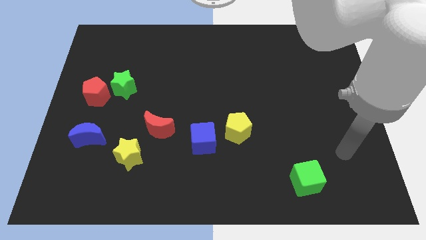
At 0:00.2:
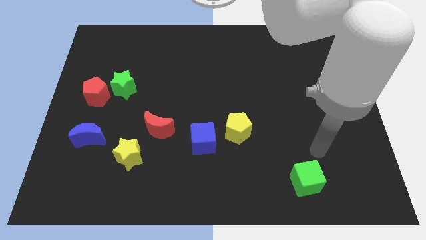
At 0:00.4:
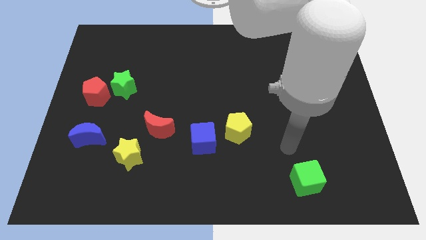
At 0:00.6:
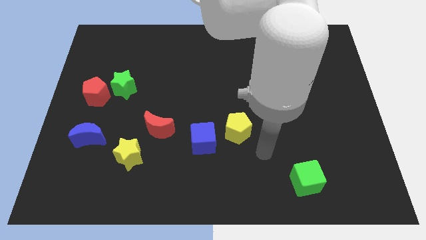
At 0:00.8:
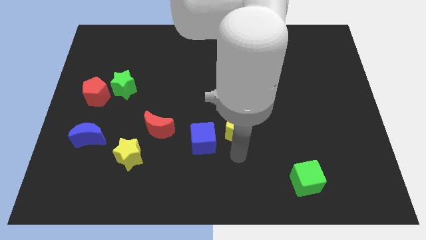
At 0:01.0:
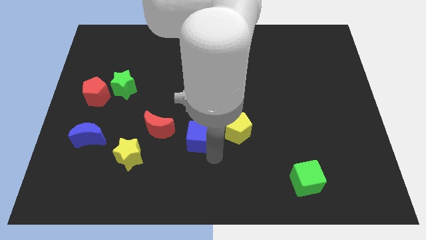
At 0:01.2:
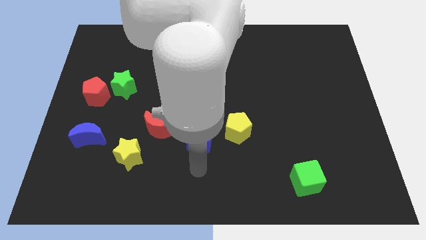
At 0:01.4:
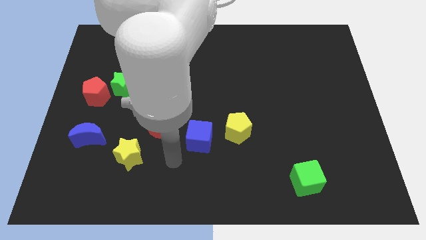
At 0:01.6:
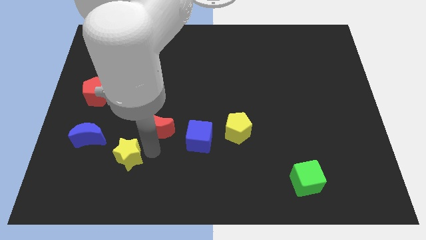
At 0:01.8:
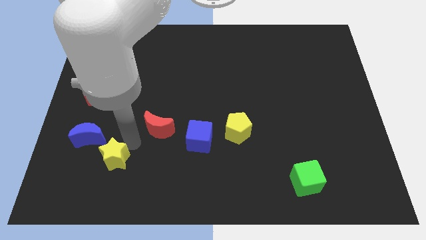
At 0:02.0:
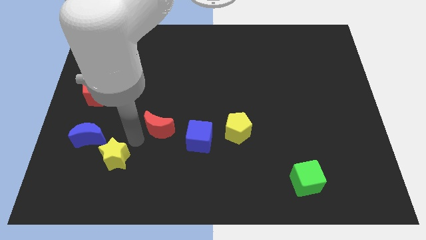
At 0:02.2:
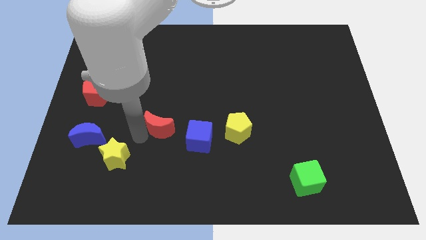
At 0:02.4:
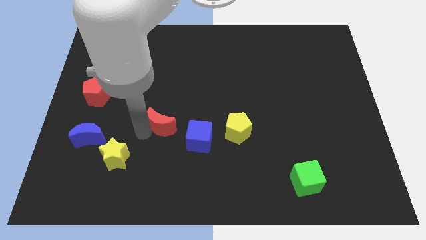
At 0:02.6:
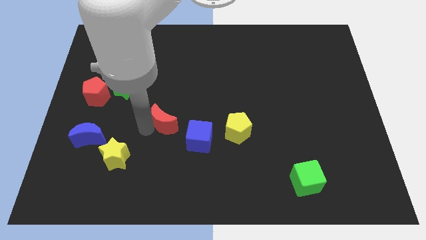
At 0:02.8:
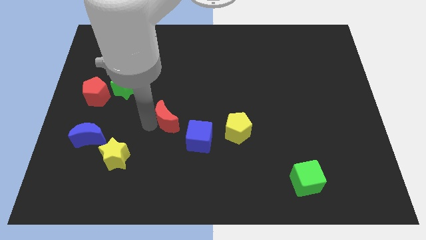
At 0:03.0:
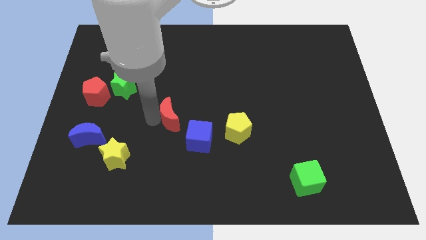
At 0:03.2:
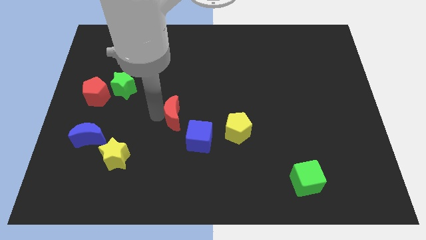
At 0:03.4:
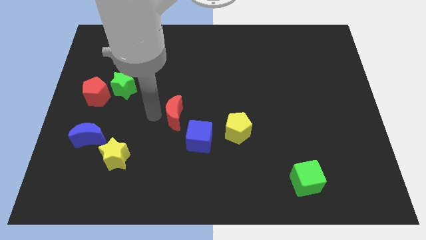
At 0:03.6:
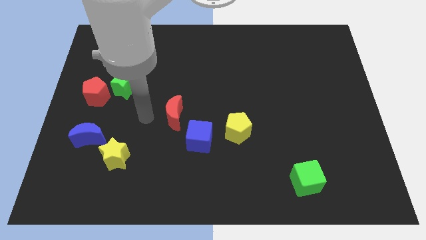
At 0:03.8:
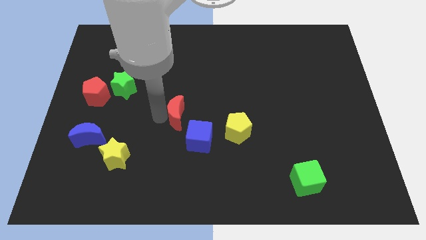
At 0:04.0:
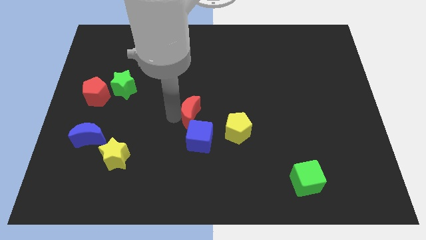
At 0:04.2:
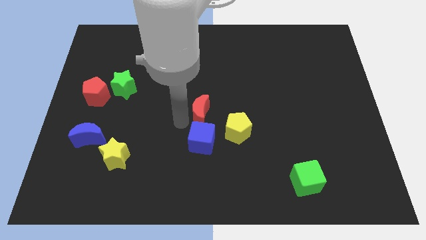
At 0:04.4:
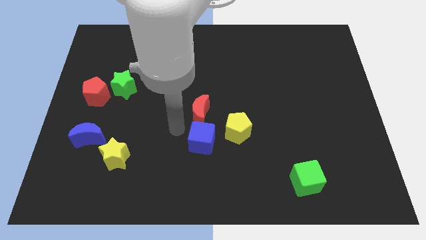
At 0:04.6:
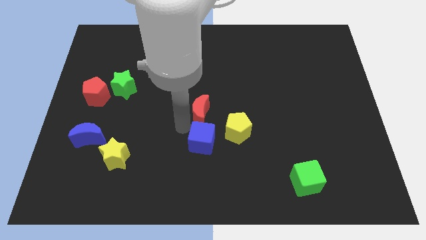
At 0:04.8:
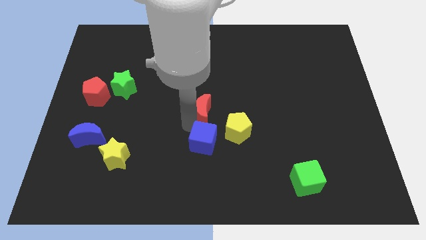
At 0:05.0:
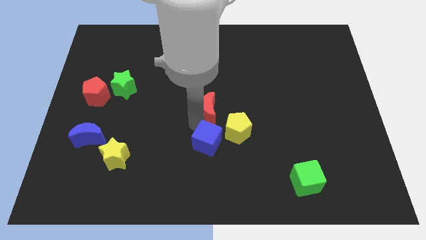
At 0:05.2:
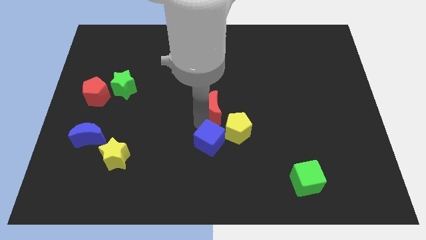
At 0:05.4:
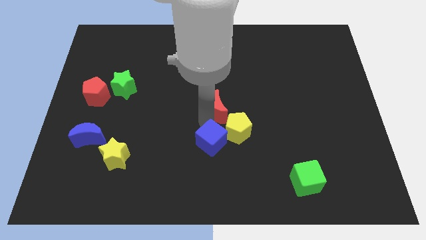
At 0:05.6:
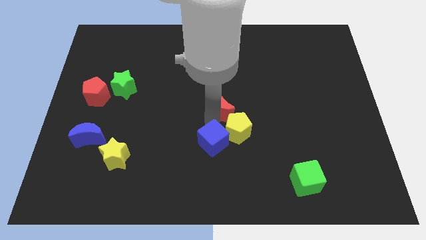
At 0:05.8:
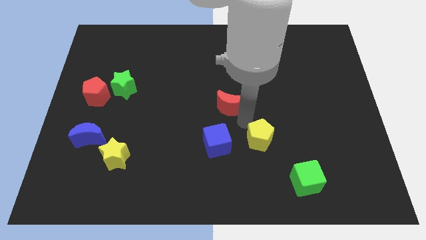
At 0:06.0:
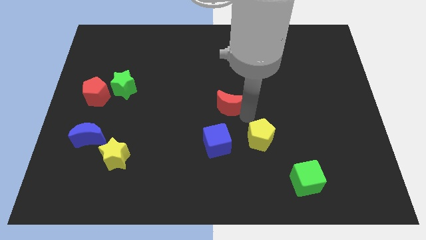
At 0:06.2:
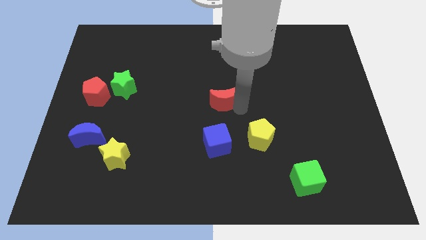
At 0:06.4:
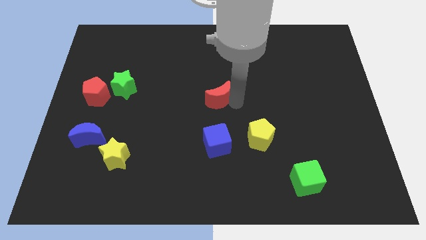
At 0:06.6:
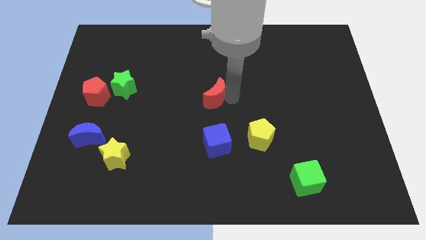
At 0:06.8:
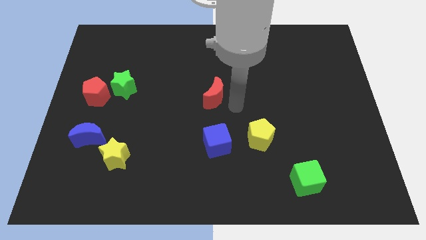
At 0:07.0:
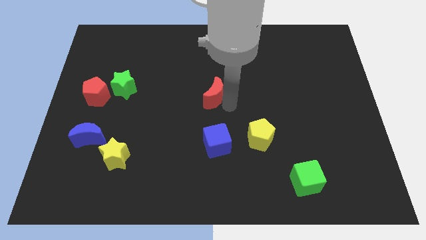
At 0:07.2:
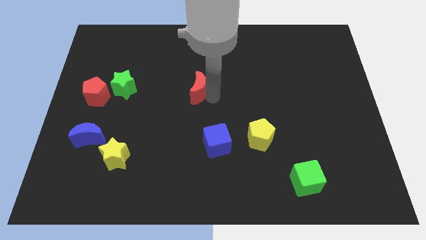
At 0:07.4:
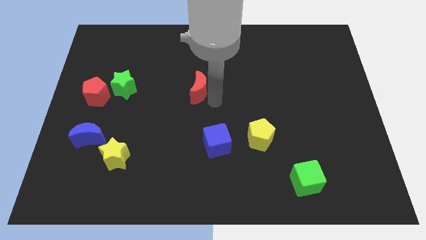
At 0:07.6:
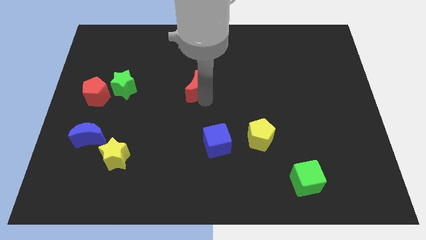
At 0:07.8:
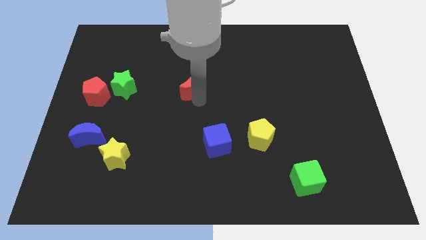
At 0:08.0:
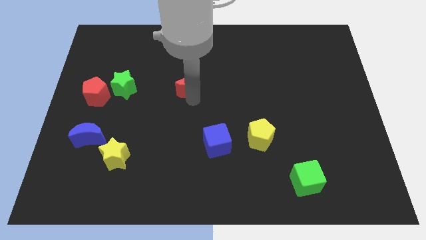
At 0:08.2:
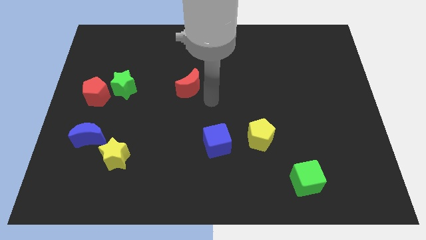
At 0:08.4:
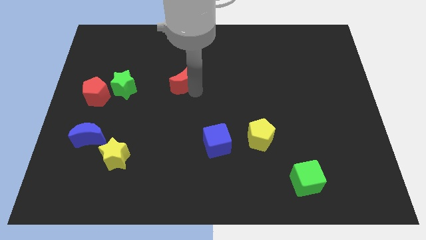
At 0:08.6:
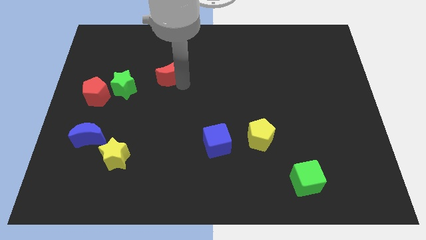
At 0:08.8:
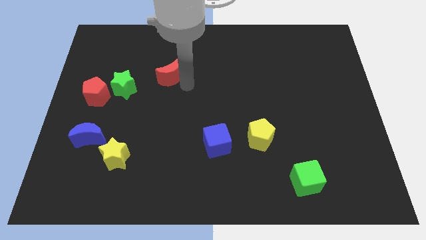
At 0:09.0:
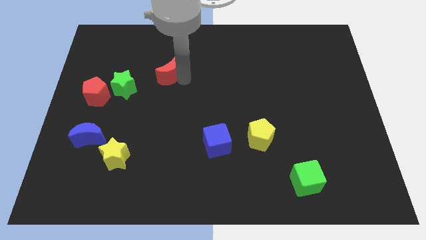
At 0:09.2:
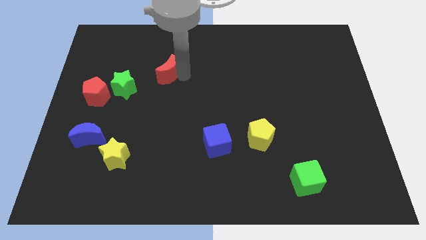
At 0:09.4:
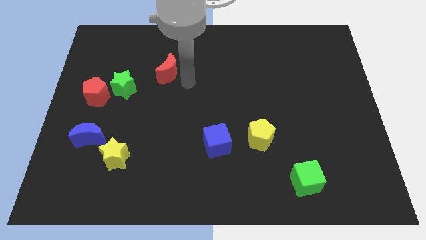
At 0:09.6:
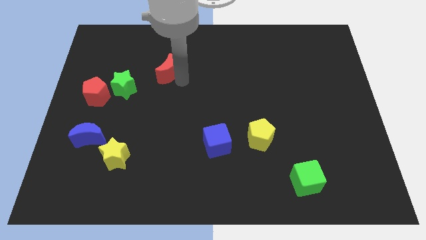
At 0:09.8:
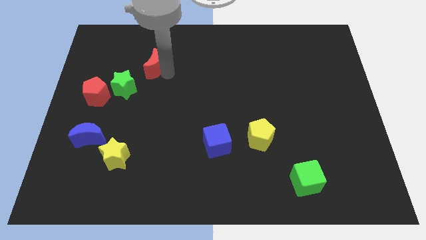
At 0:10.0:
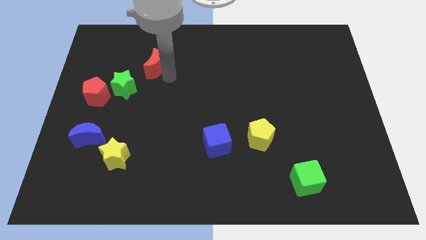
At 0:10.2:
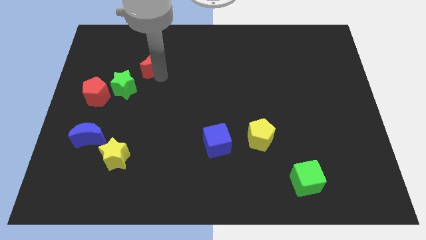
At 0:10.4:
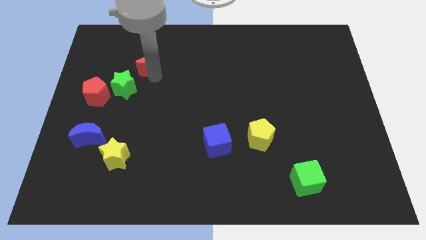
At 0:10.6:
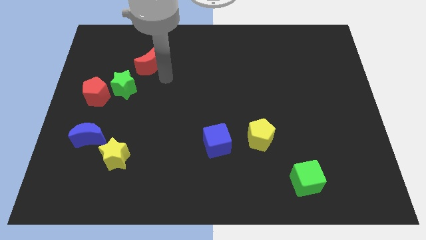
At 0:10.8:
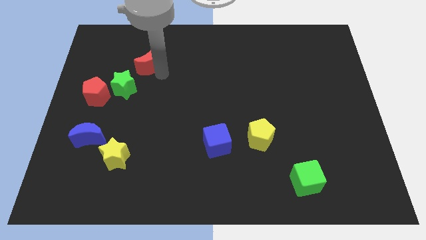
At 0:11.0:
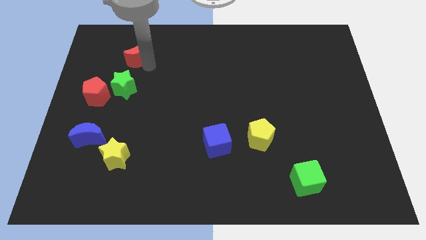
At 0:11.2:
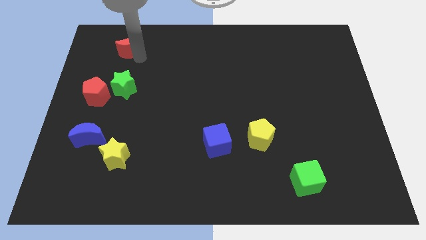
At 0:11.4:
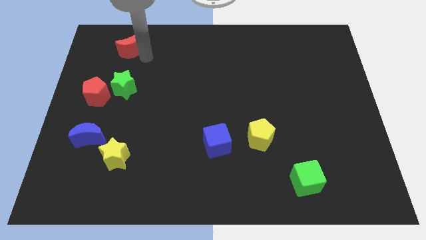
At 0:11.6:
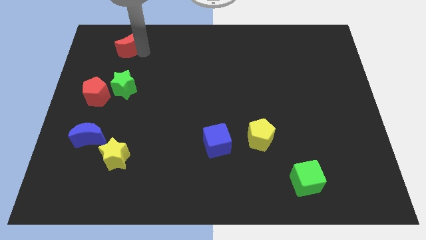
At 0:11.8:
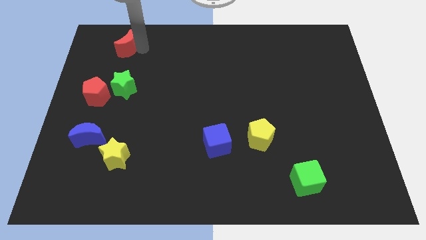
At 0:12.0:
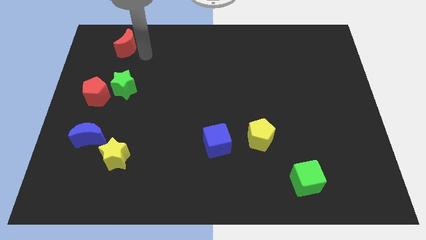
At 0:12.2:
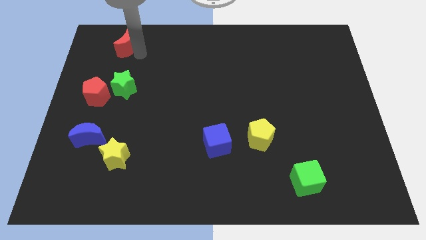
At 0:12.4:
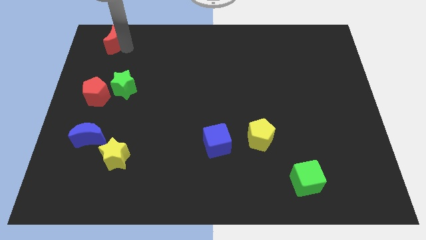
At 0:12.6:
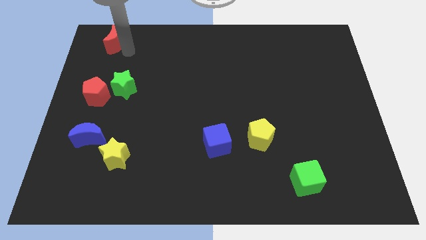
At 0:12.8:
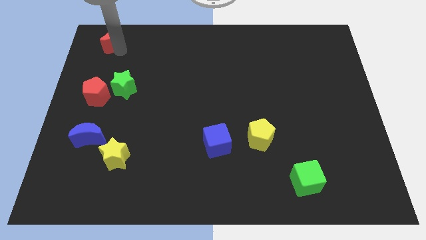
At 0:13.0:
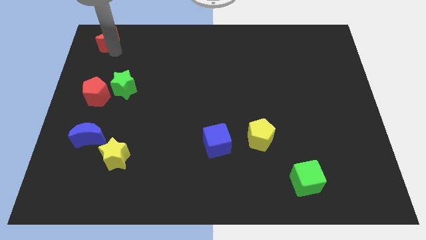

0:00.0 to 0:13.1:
move the red moon to the top left corner
